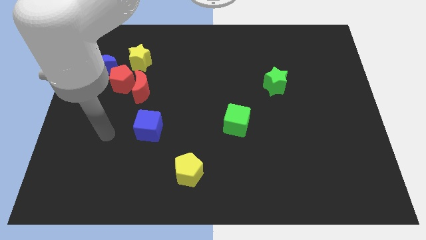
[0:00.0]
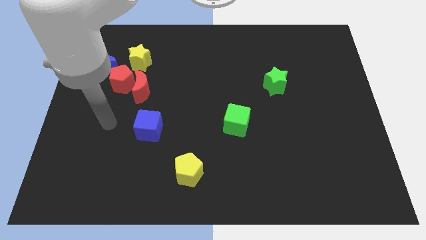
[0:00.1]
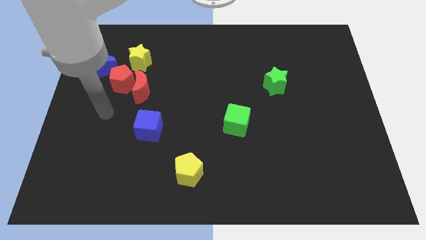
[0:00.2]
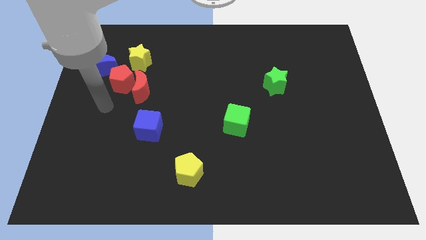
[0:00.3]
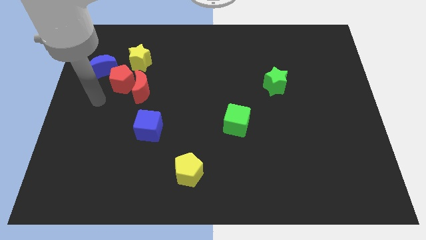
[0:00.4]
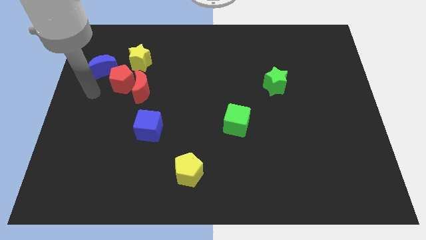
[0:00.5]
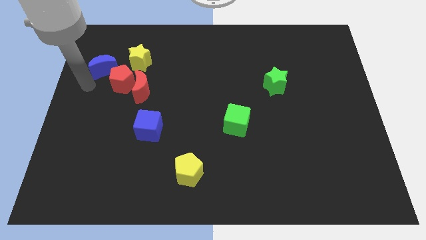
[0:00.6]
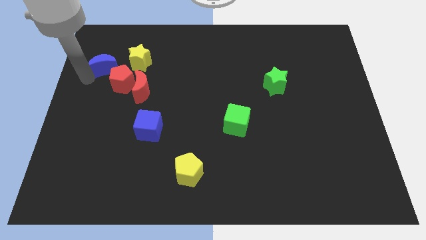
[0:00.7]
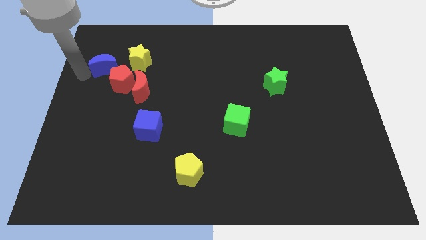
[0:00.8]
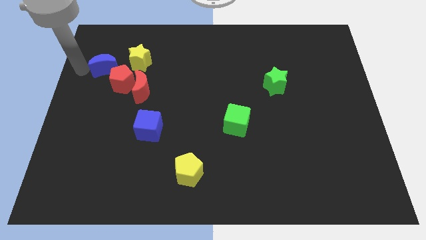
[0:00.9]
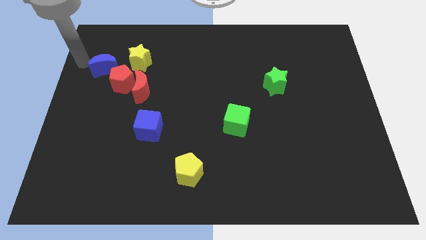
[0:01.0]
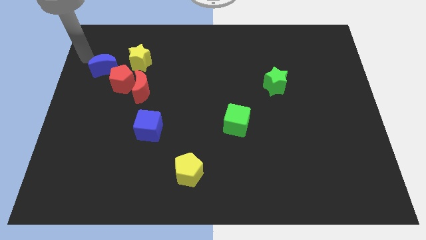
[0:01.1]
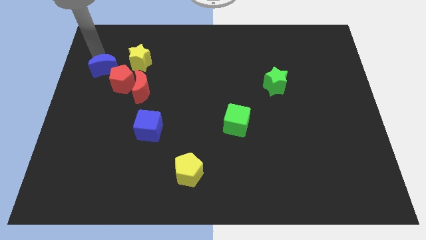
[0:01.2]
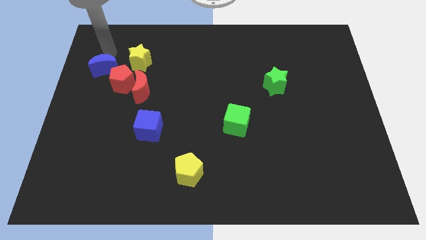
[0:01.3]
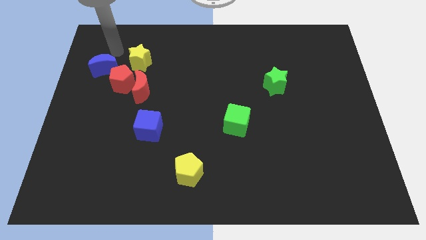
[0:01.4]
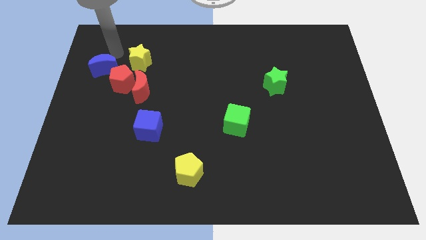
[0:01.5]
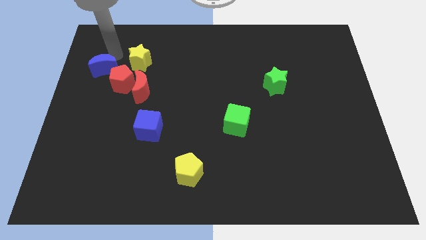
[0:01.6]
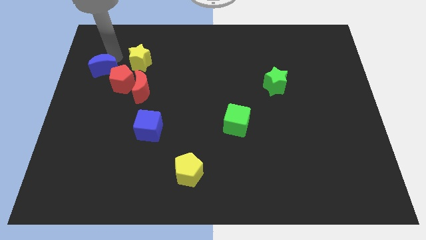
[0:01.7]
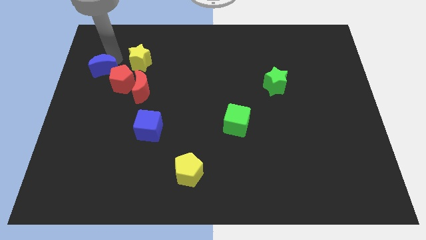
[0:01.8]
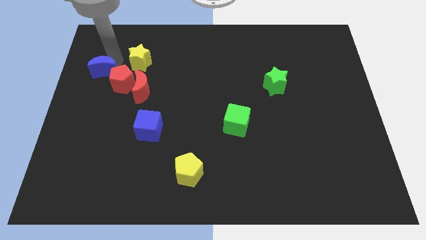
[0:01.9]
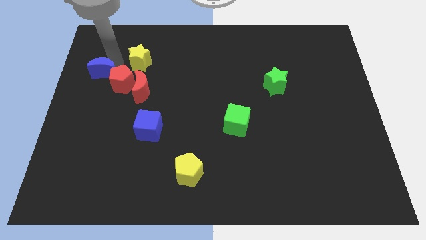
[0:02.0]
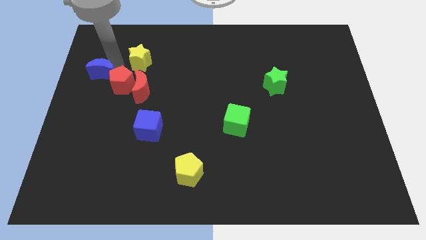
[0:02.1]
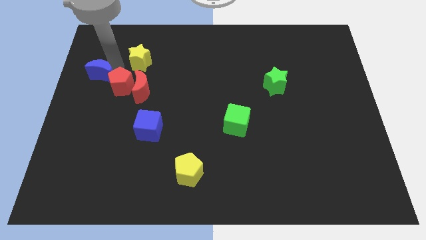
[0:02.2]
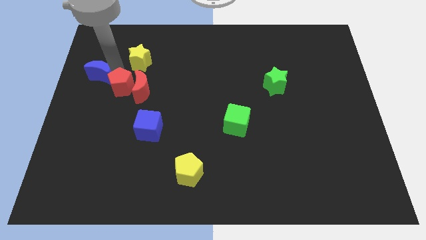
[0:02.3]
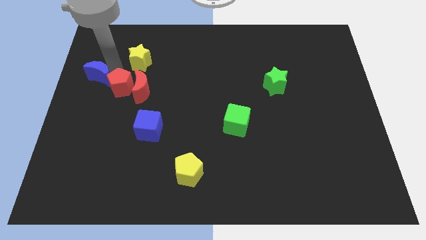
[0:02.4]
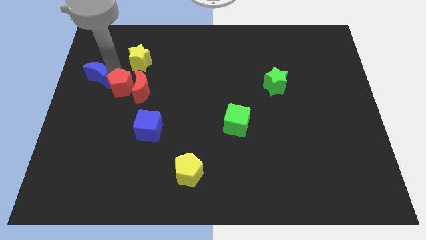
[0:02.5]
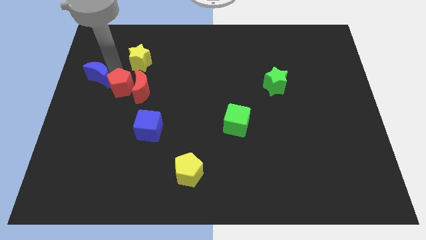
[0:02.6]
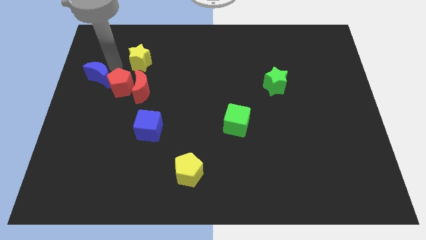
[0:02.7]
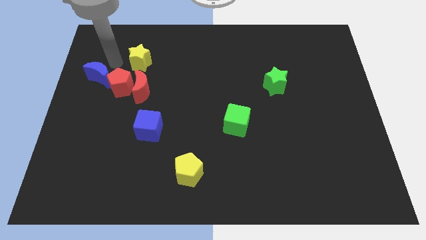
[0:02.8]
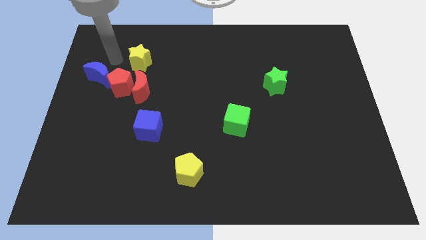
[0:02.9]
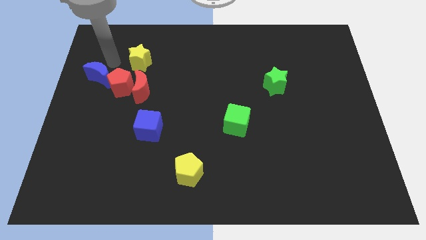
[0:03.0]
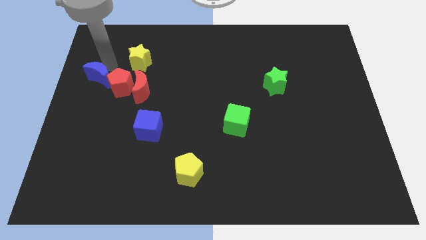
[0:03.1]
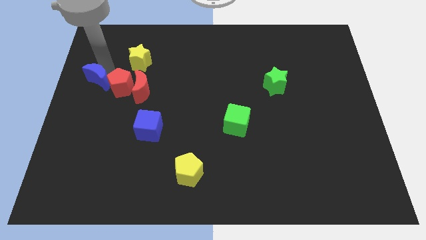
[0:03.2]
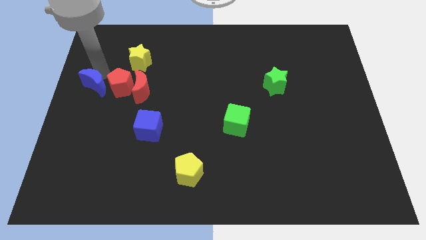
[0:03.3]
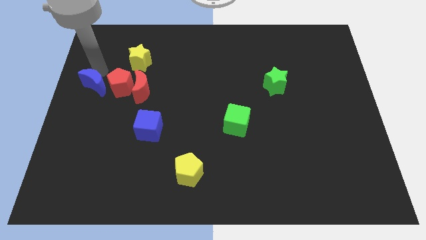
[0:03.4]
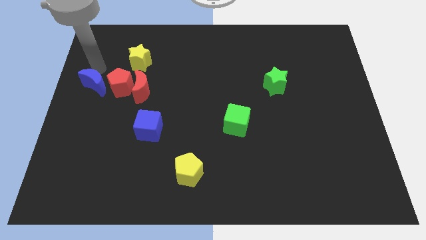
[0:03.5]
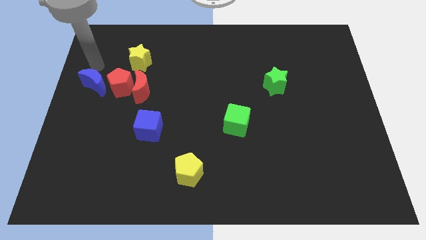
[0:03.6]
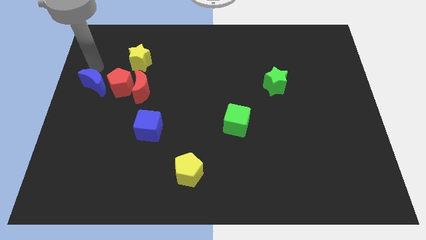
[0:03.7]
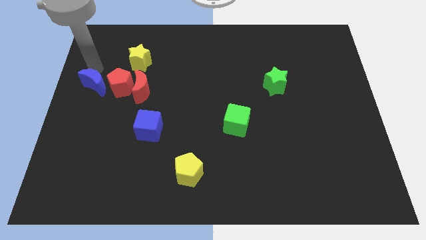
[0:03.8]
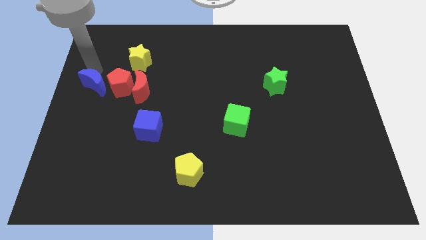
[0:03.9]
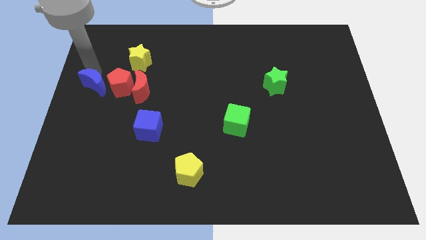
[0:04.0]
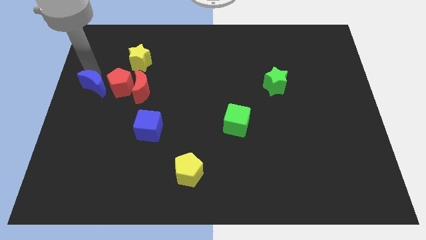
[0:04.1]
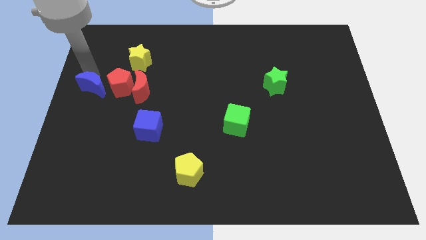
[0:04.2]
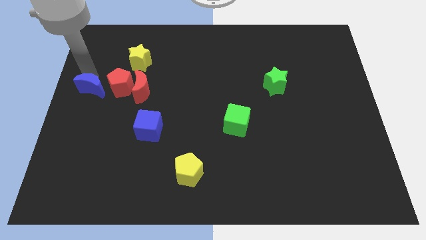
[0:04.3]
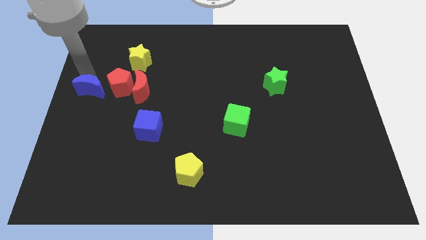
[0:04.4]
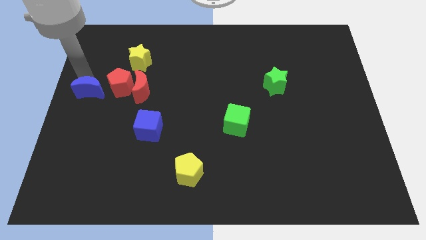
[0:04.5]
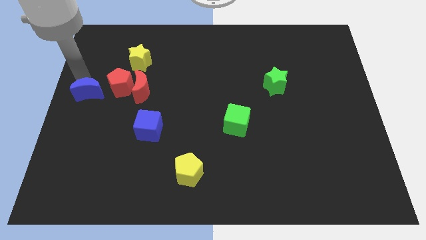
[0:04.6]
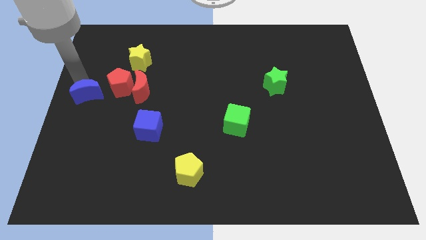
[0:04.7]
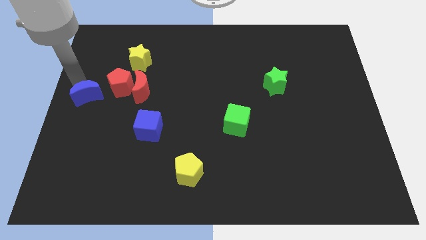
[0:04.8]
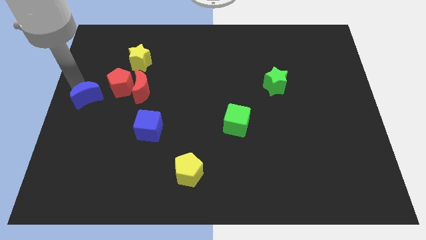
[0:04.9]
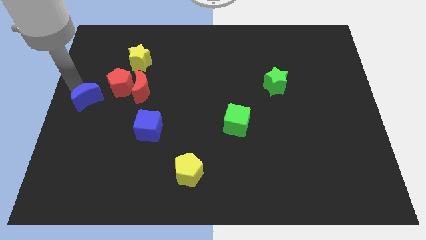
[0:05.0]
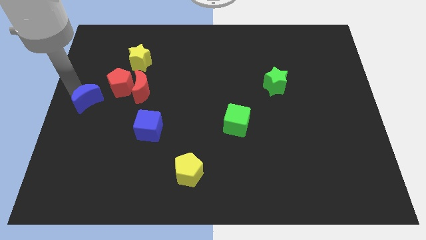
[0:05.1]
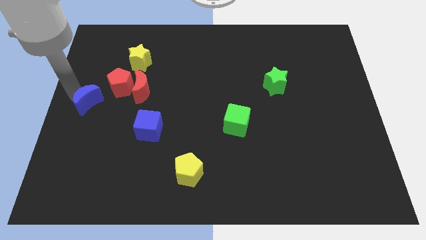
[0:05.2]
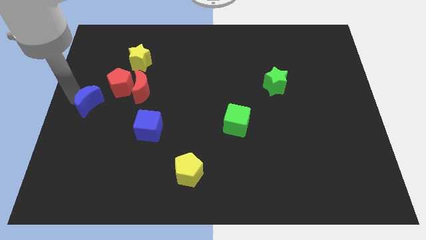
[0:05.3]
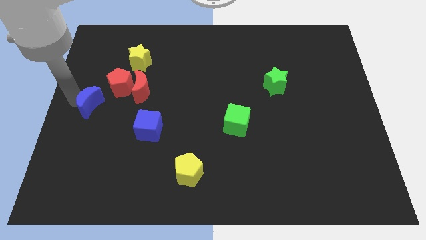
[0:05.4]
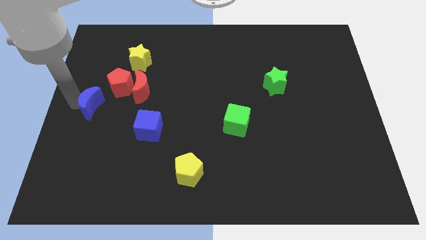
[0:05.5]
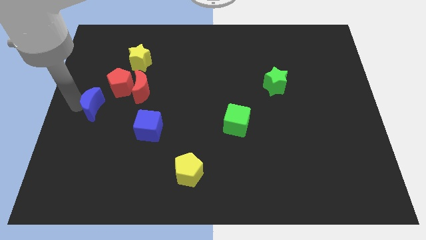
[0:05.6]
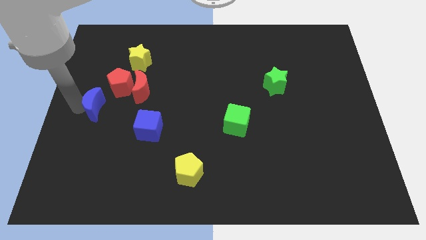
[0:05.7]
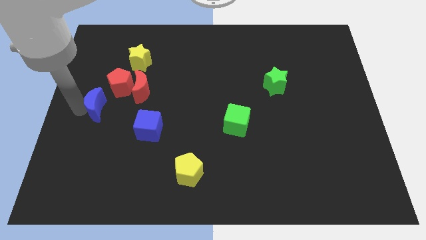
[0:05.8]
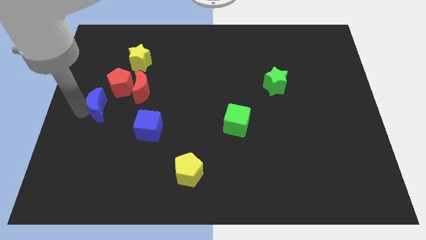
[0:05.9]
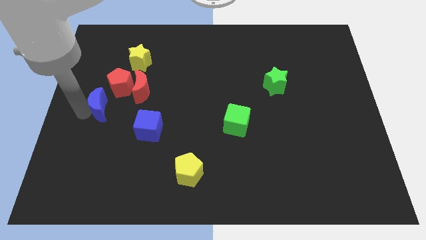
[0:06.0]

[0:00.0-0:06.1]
slightly push the blue moon diagonally downwards and right

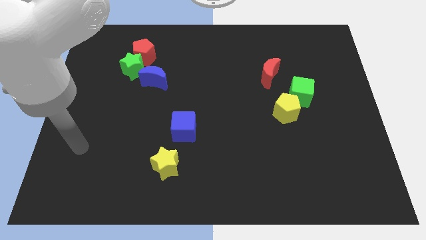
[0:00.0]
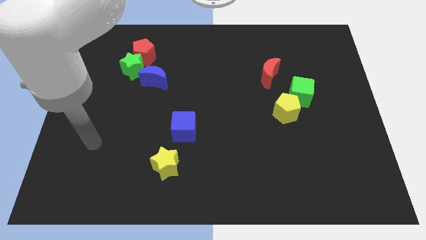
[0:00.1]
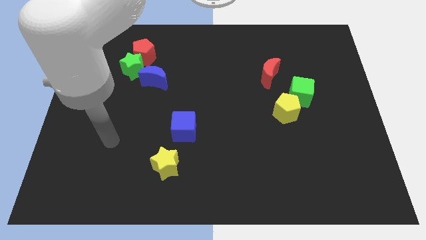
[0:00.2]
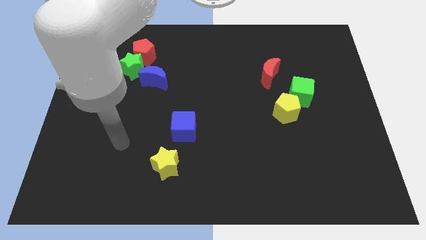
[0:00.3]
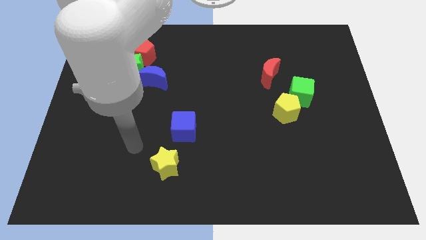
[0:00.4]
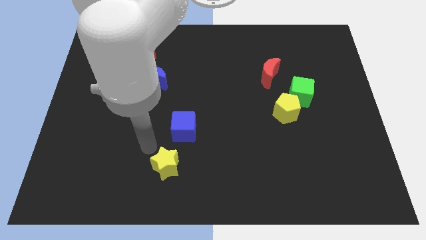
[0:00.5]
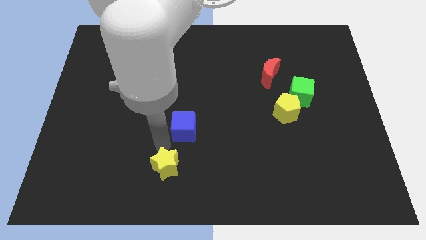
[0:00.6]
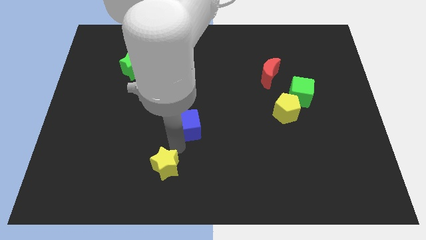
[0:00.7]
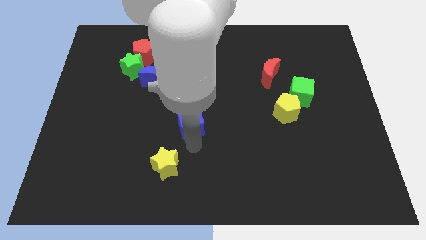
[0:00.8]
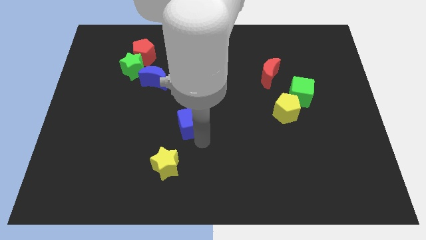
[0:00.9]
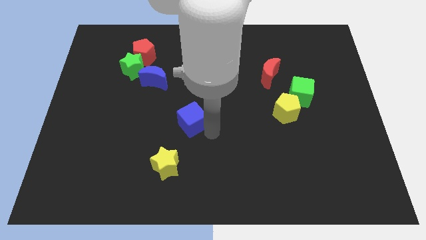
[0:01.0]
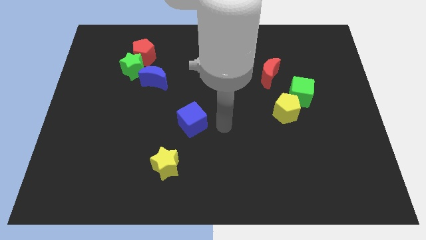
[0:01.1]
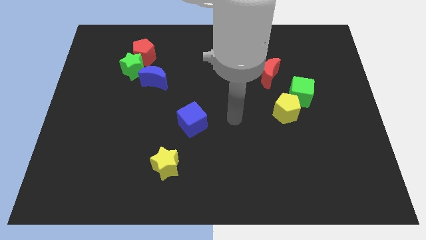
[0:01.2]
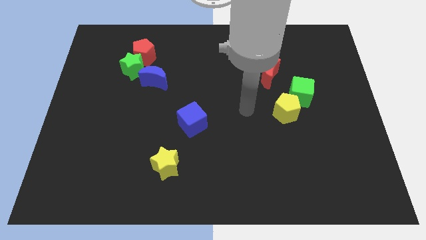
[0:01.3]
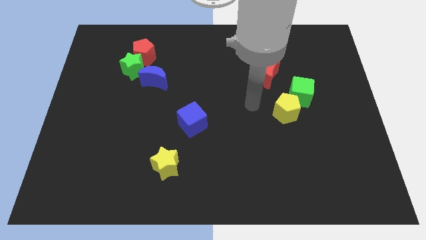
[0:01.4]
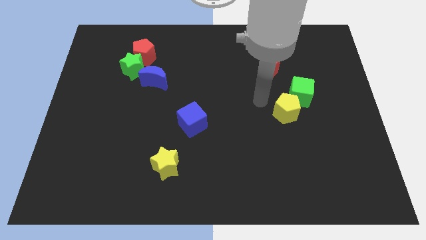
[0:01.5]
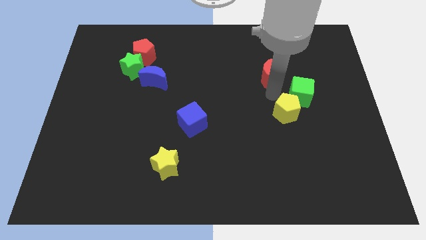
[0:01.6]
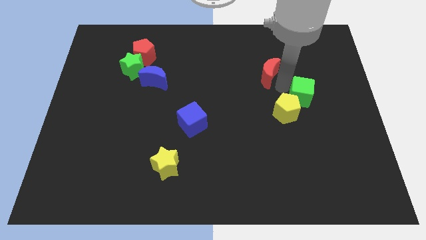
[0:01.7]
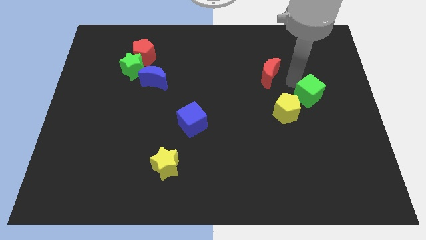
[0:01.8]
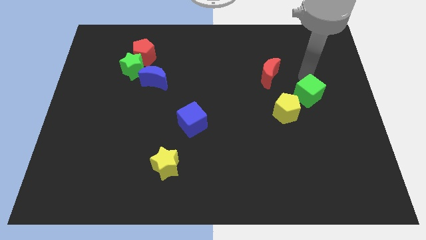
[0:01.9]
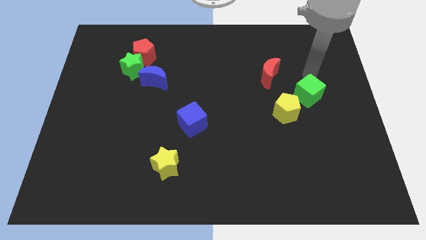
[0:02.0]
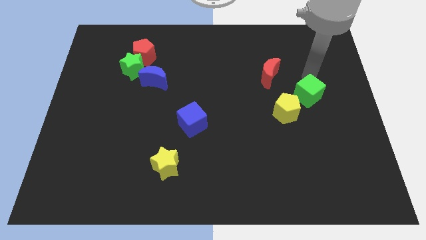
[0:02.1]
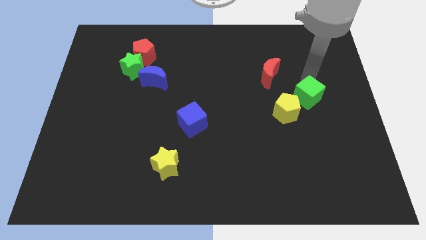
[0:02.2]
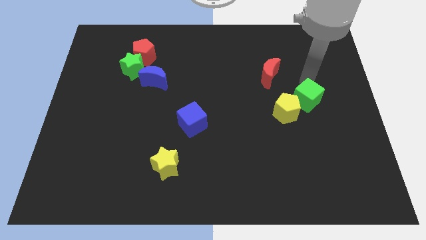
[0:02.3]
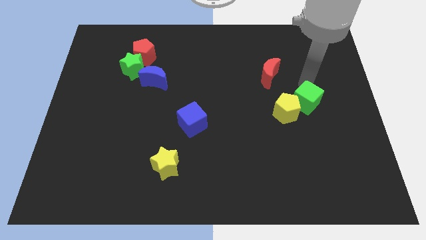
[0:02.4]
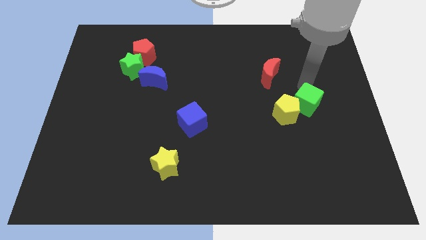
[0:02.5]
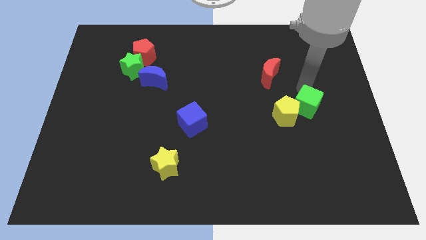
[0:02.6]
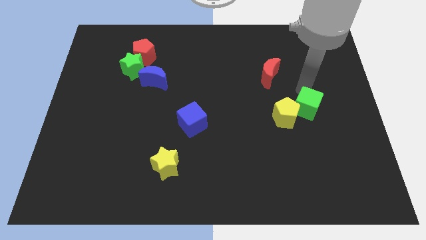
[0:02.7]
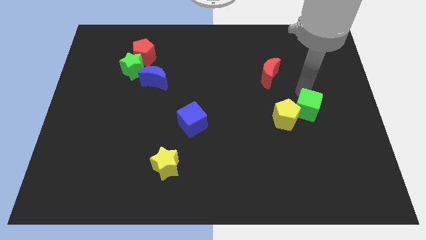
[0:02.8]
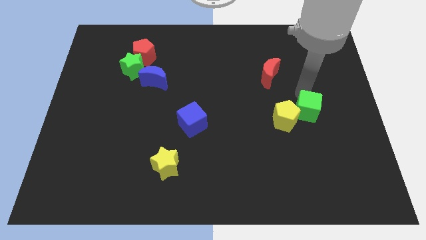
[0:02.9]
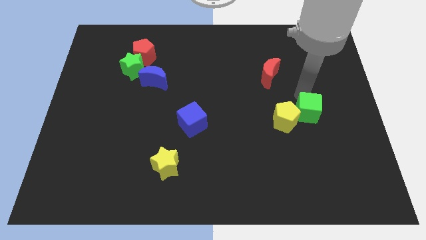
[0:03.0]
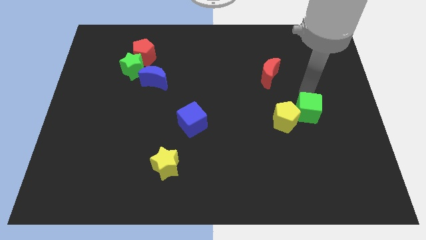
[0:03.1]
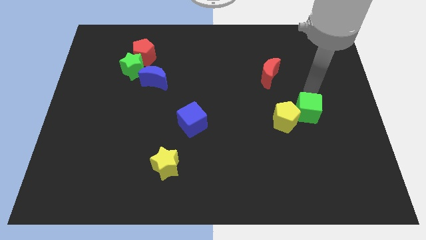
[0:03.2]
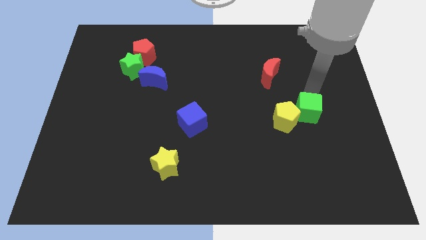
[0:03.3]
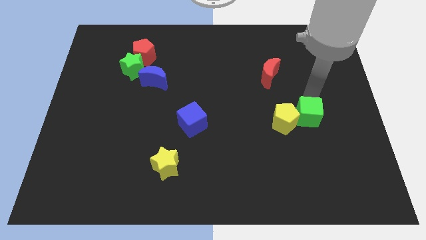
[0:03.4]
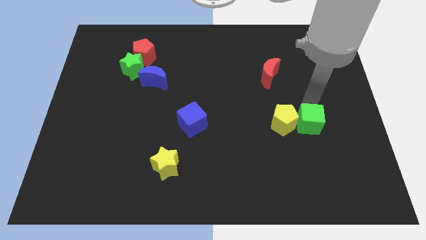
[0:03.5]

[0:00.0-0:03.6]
slightly move the green cube downwards
